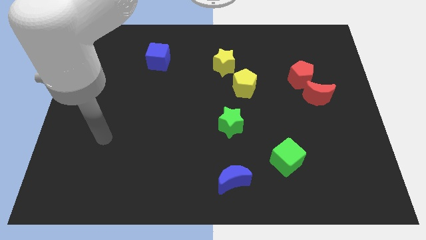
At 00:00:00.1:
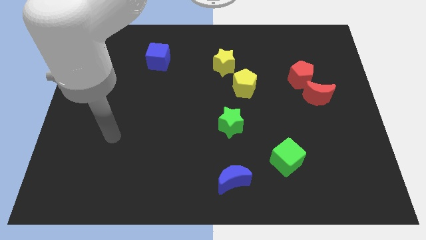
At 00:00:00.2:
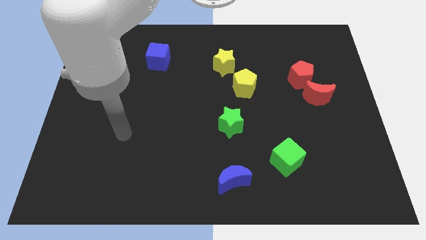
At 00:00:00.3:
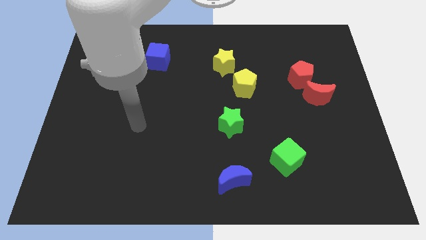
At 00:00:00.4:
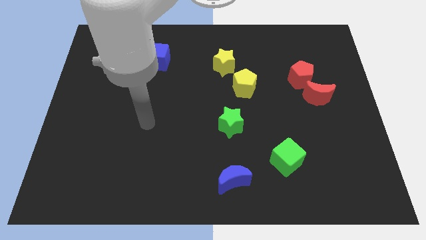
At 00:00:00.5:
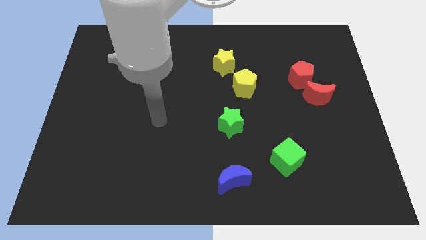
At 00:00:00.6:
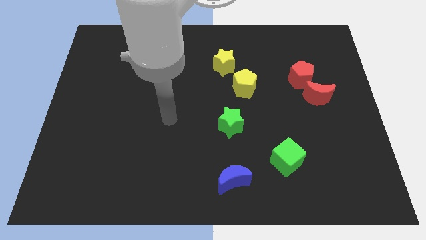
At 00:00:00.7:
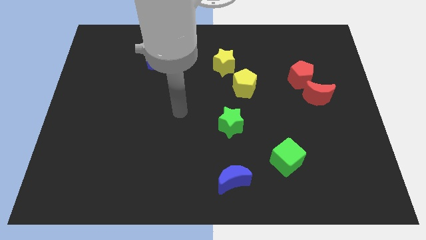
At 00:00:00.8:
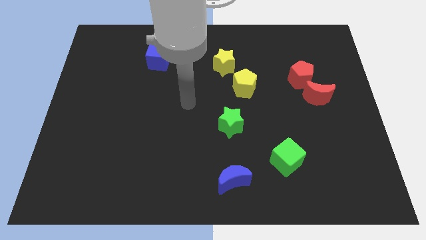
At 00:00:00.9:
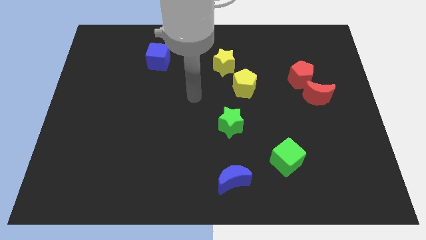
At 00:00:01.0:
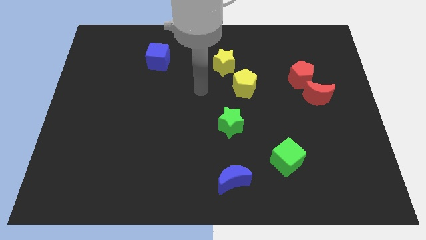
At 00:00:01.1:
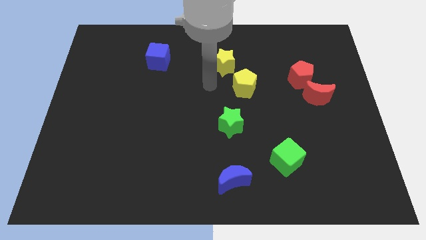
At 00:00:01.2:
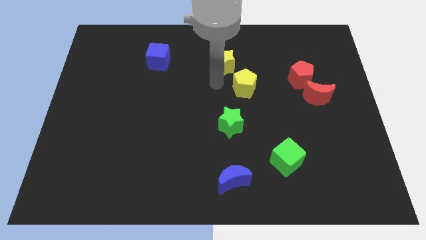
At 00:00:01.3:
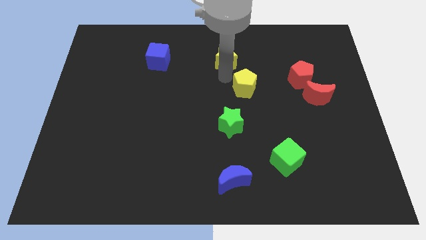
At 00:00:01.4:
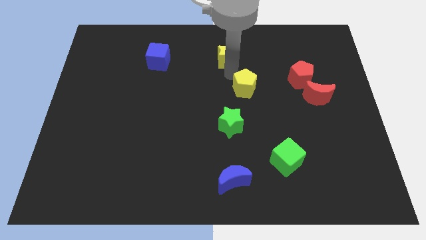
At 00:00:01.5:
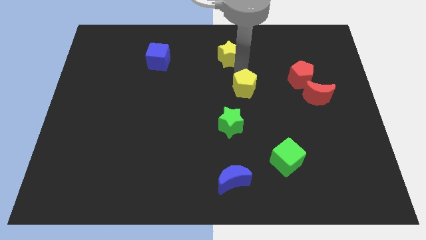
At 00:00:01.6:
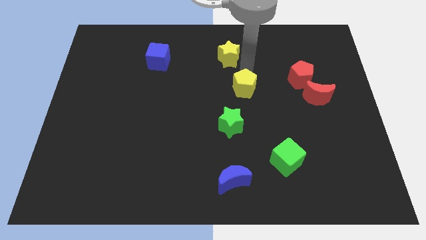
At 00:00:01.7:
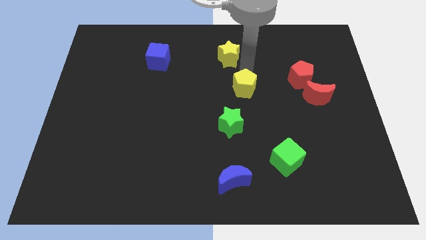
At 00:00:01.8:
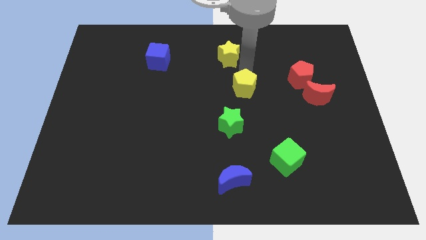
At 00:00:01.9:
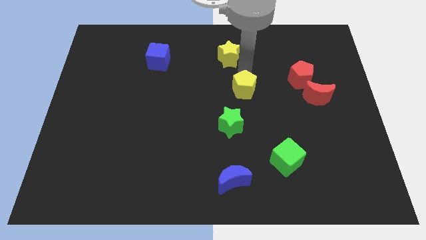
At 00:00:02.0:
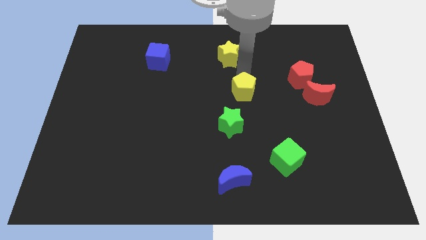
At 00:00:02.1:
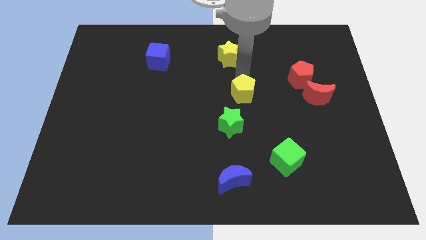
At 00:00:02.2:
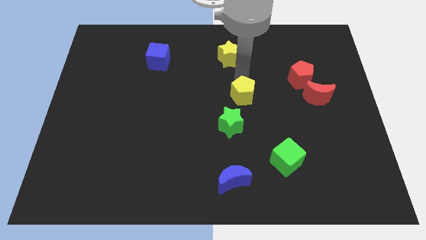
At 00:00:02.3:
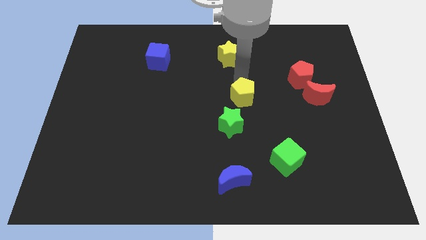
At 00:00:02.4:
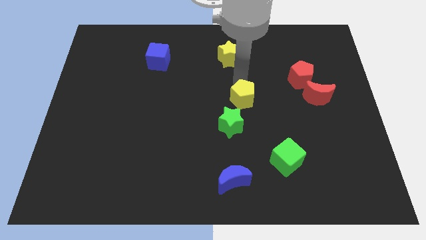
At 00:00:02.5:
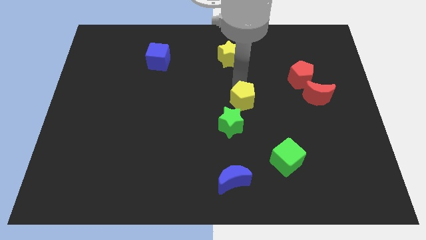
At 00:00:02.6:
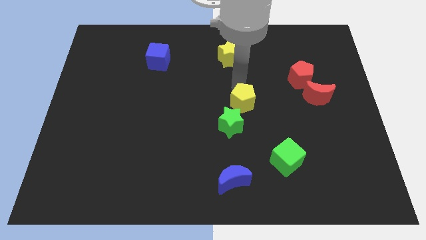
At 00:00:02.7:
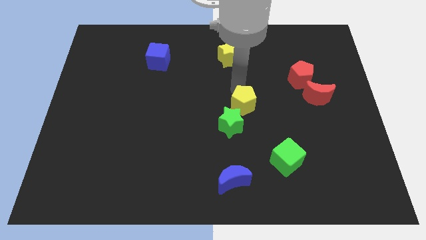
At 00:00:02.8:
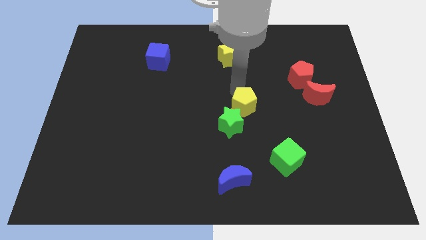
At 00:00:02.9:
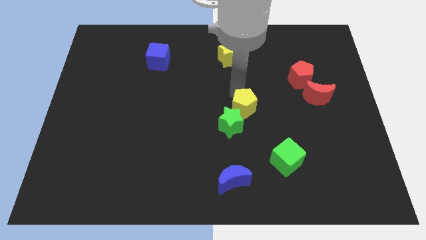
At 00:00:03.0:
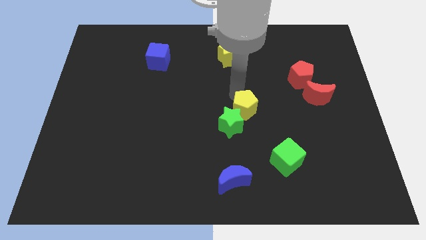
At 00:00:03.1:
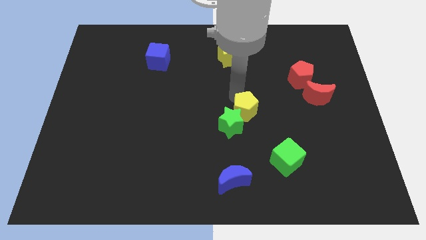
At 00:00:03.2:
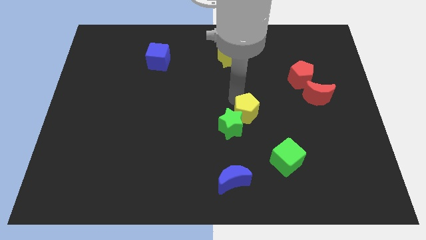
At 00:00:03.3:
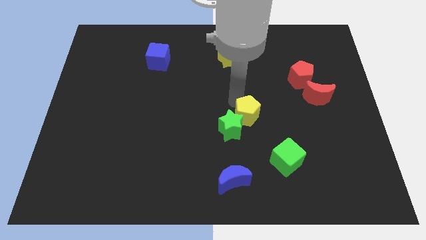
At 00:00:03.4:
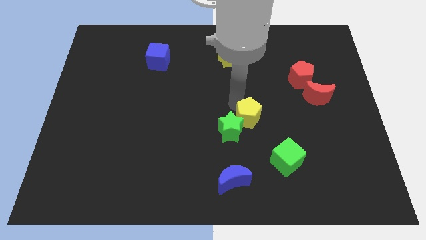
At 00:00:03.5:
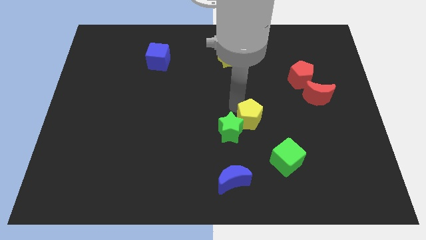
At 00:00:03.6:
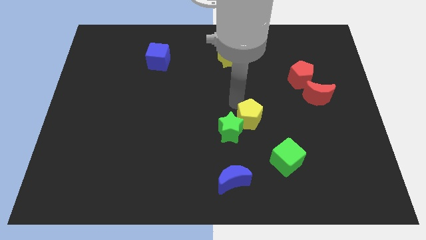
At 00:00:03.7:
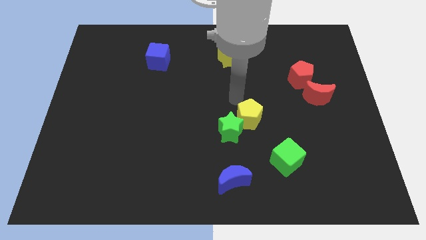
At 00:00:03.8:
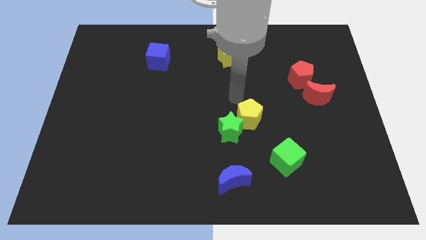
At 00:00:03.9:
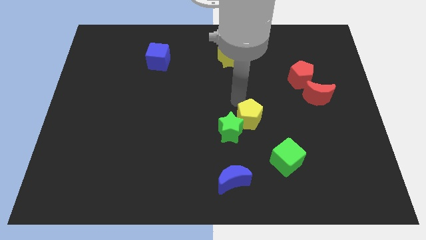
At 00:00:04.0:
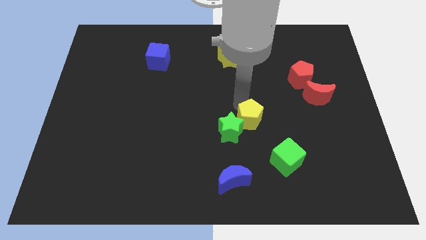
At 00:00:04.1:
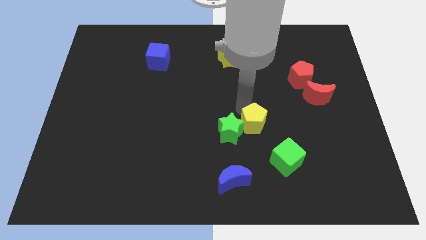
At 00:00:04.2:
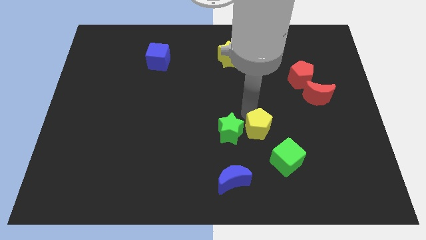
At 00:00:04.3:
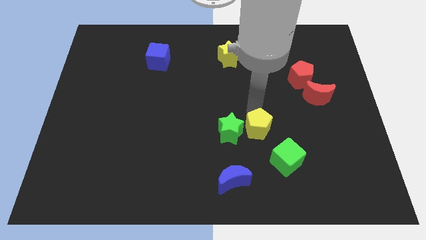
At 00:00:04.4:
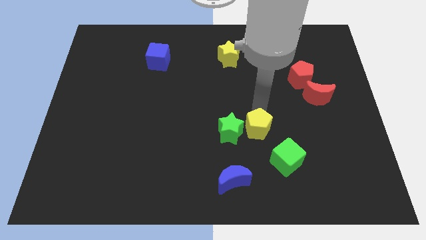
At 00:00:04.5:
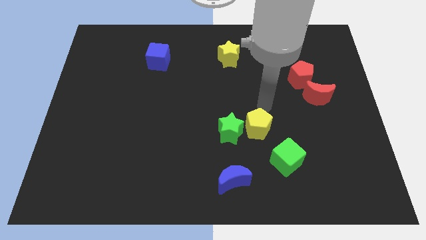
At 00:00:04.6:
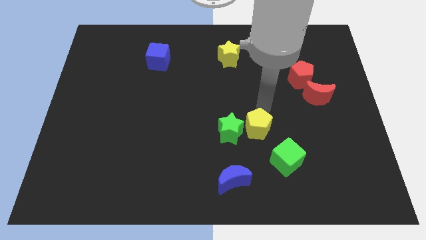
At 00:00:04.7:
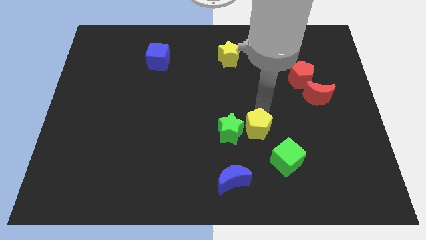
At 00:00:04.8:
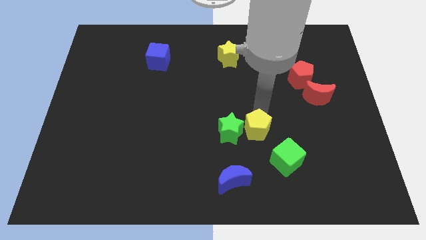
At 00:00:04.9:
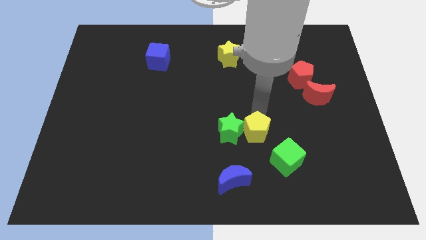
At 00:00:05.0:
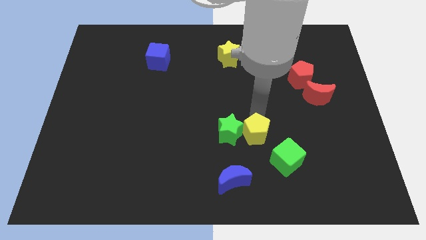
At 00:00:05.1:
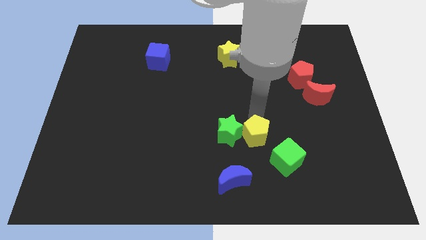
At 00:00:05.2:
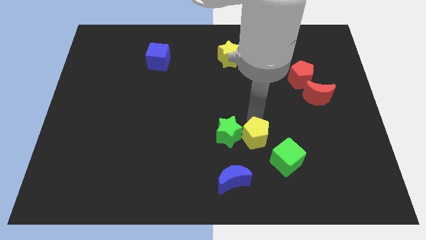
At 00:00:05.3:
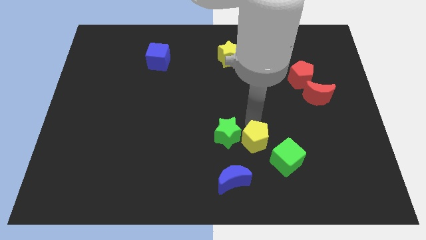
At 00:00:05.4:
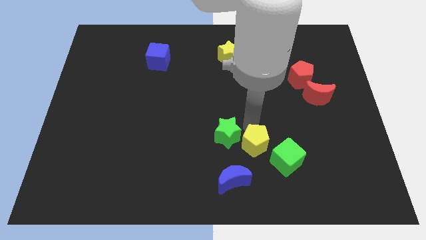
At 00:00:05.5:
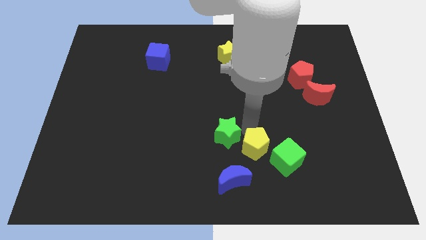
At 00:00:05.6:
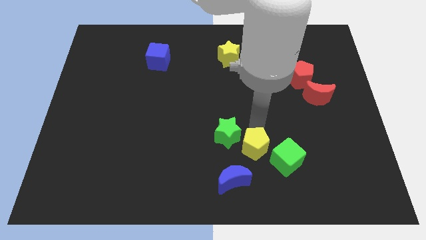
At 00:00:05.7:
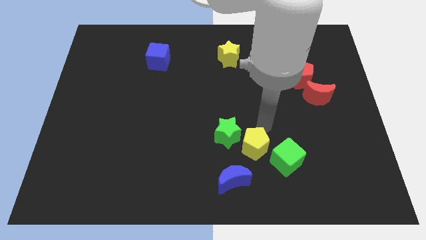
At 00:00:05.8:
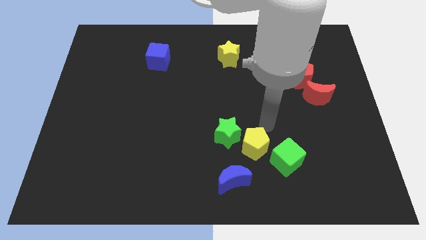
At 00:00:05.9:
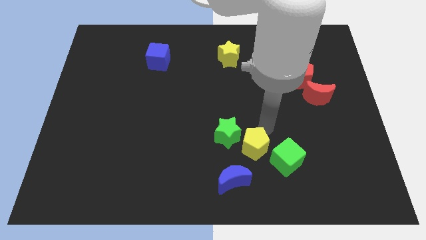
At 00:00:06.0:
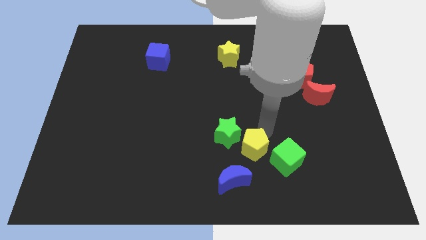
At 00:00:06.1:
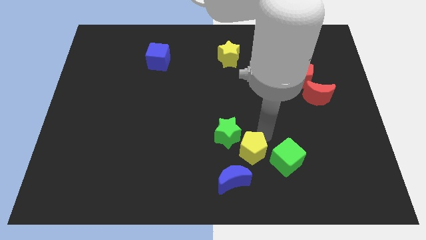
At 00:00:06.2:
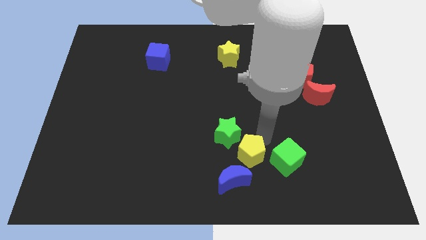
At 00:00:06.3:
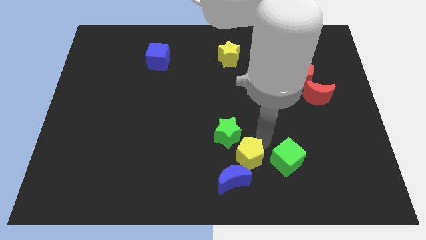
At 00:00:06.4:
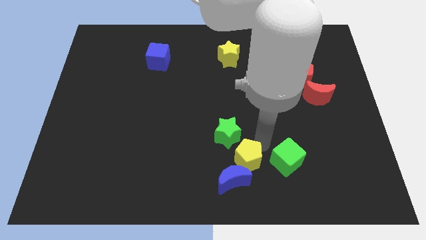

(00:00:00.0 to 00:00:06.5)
push the yellow pentagon next to the blue moon
